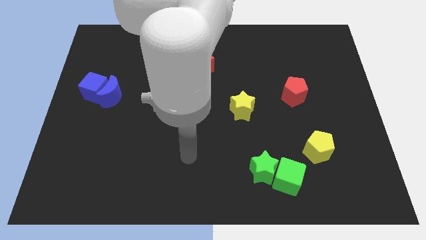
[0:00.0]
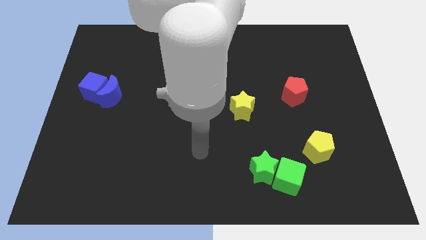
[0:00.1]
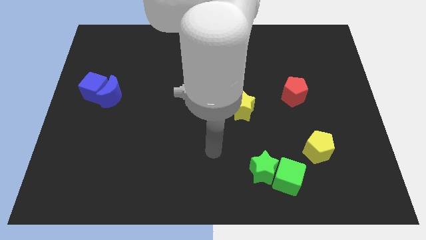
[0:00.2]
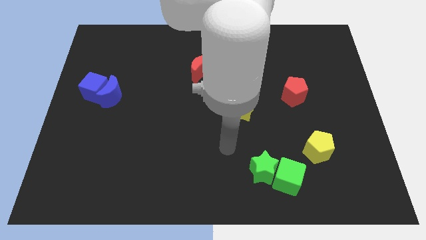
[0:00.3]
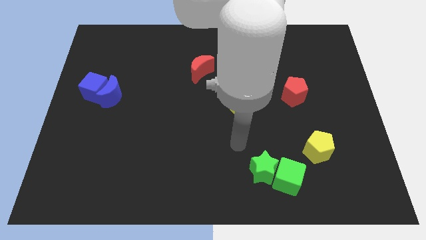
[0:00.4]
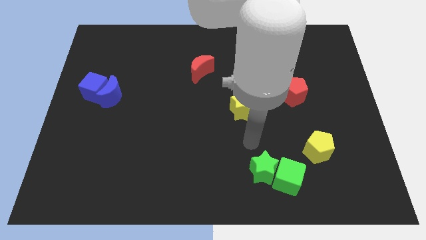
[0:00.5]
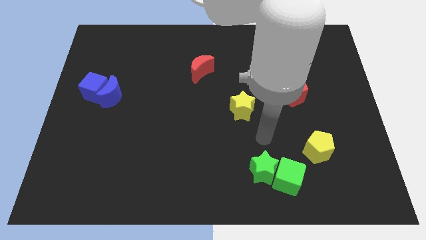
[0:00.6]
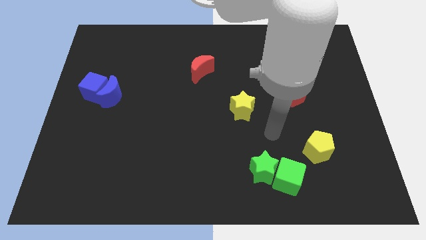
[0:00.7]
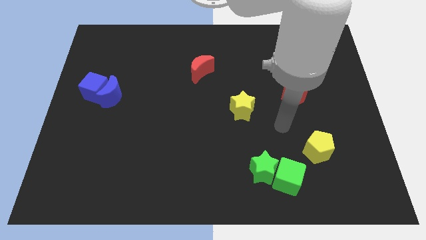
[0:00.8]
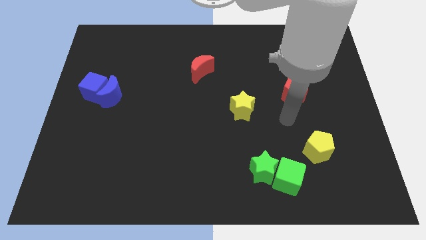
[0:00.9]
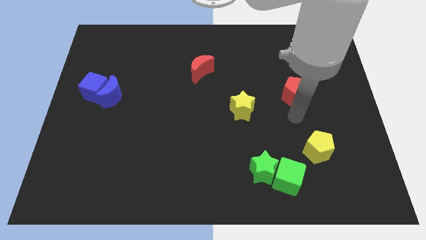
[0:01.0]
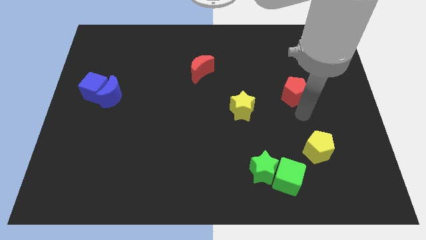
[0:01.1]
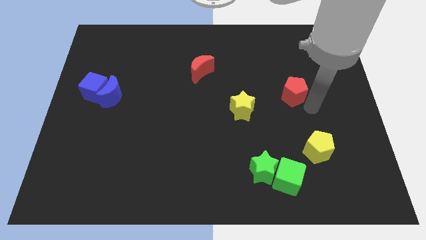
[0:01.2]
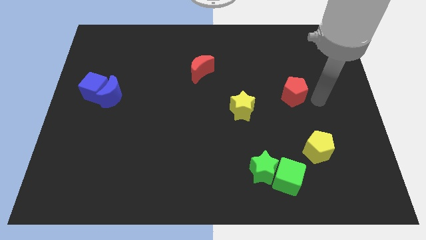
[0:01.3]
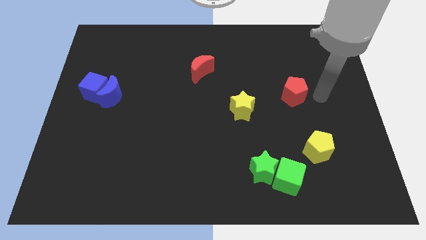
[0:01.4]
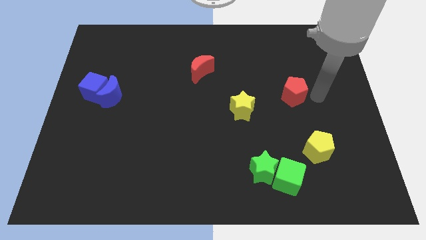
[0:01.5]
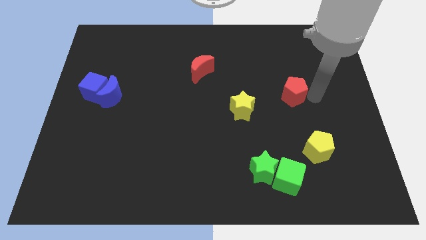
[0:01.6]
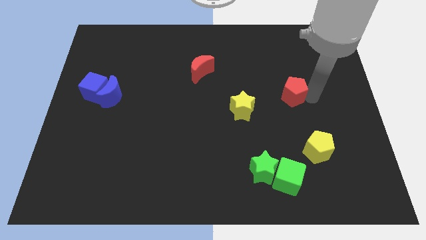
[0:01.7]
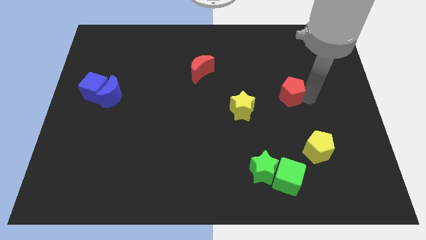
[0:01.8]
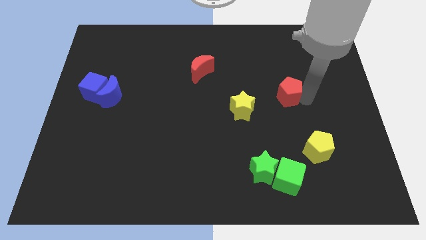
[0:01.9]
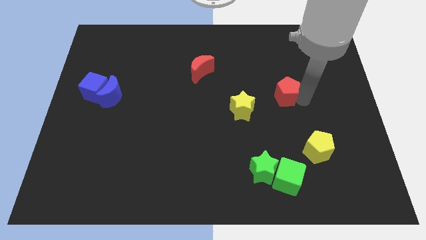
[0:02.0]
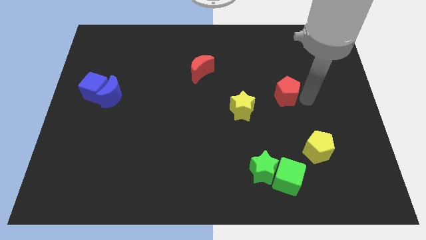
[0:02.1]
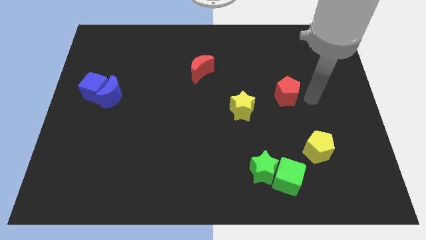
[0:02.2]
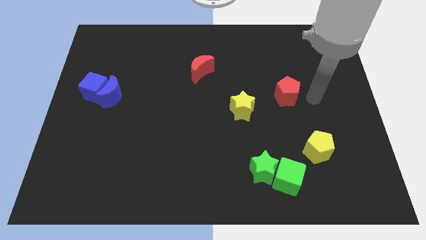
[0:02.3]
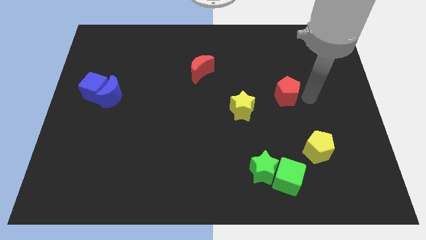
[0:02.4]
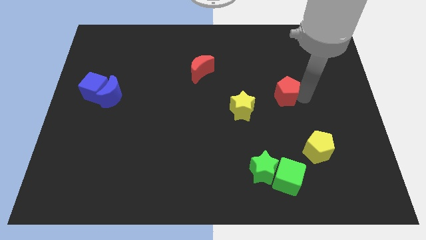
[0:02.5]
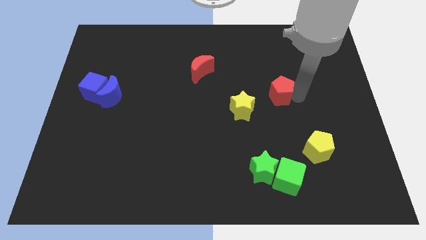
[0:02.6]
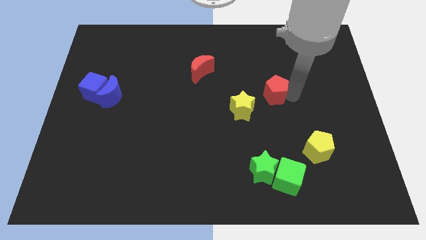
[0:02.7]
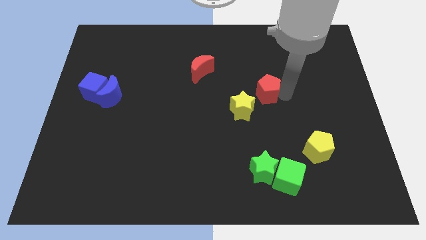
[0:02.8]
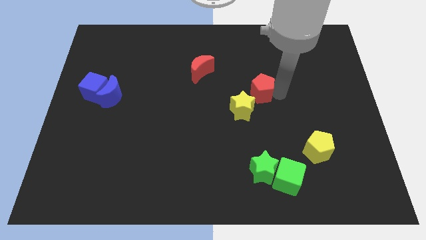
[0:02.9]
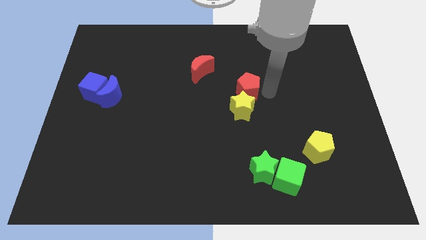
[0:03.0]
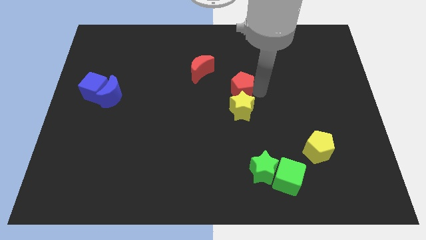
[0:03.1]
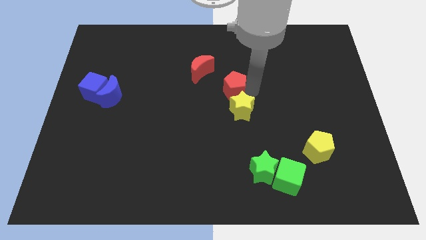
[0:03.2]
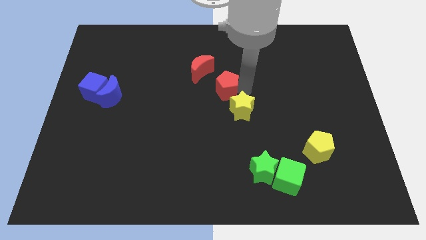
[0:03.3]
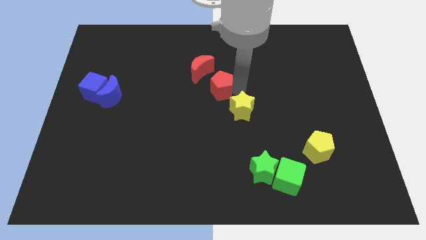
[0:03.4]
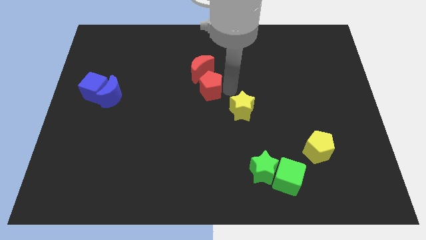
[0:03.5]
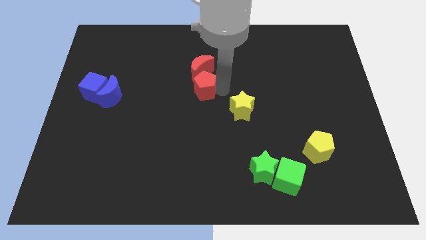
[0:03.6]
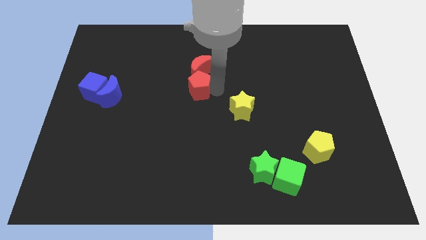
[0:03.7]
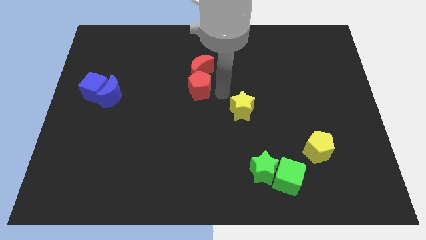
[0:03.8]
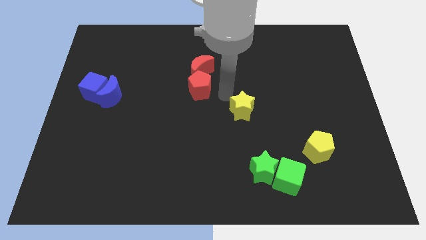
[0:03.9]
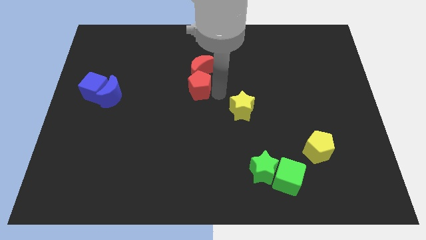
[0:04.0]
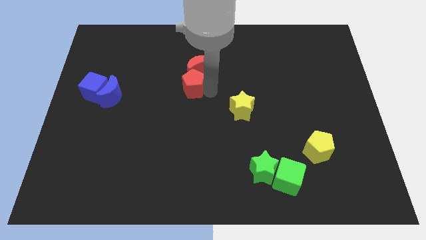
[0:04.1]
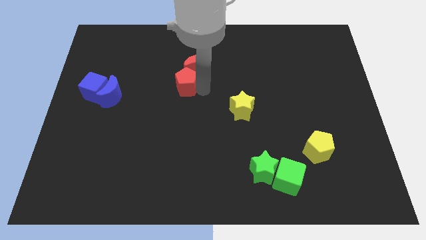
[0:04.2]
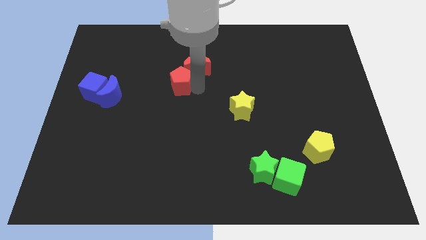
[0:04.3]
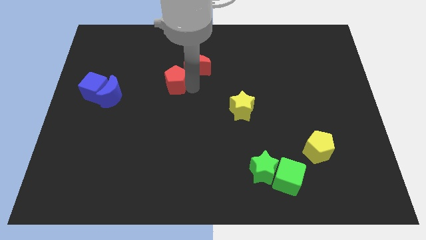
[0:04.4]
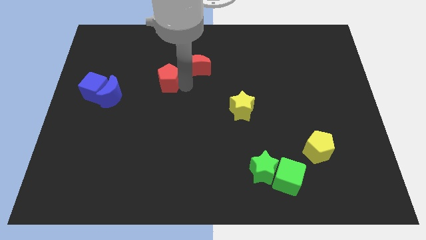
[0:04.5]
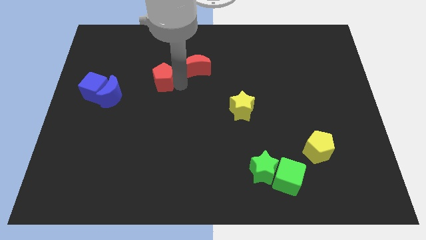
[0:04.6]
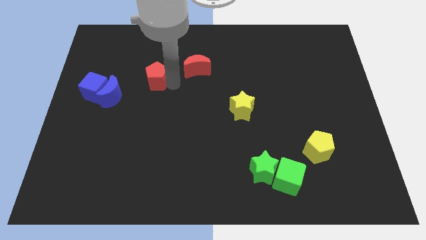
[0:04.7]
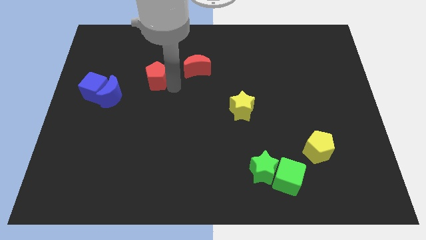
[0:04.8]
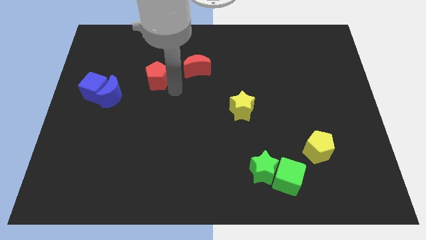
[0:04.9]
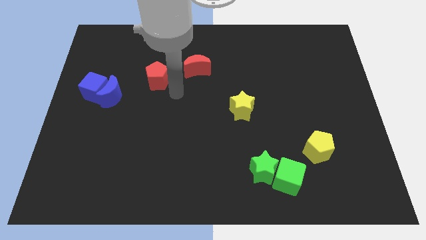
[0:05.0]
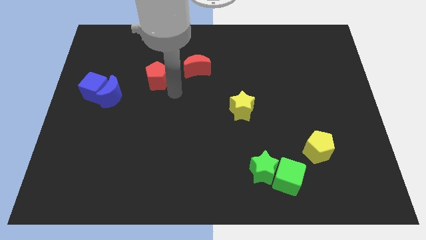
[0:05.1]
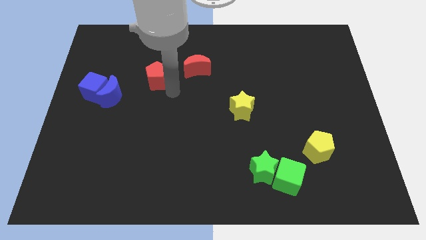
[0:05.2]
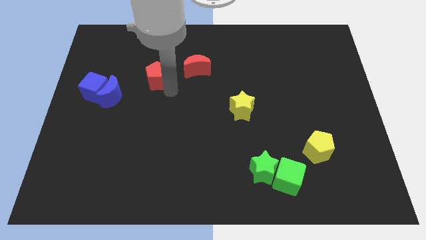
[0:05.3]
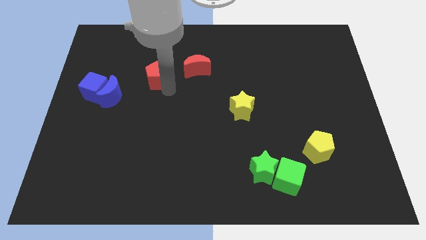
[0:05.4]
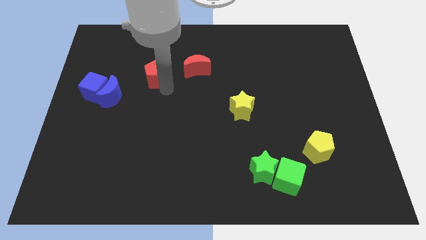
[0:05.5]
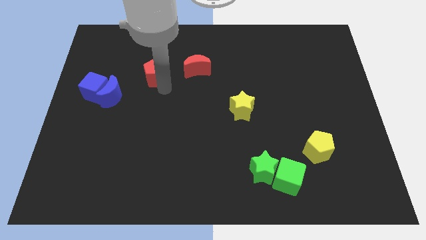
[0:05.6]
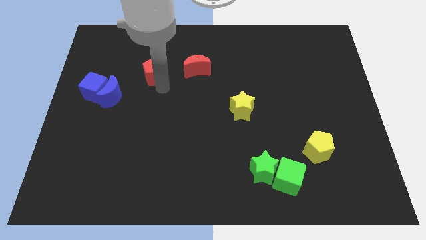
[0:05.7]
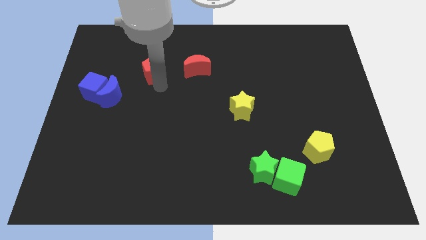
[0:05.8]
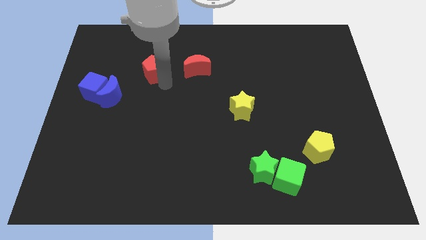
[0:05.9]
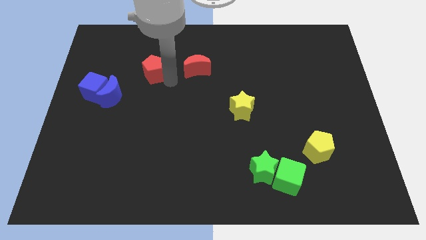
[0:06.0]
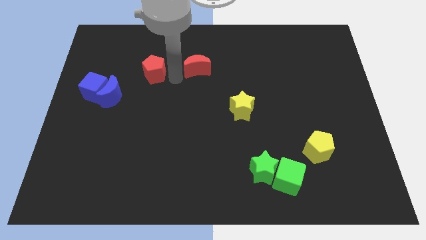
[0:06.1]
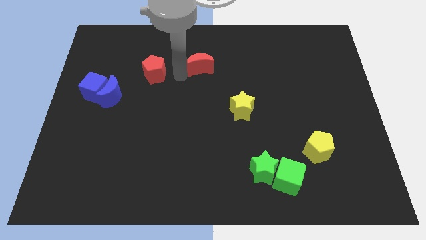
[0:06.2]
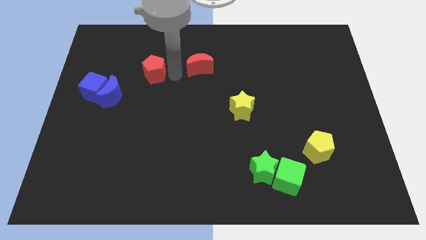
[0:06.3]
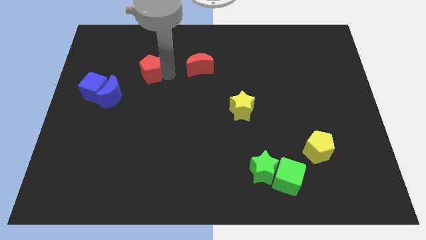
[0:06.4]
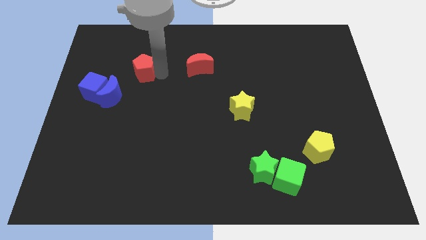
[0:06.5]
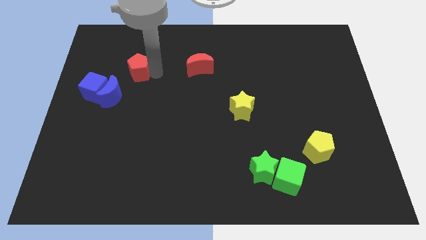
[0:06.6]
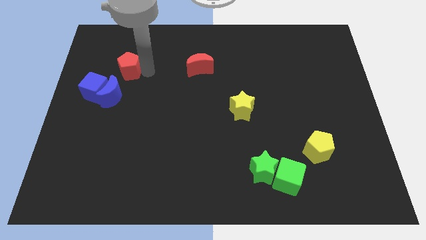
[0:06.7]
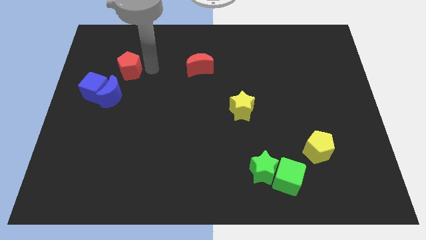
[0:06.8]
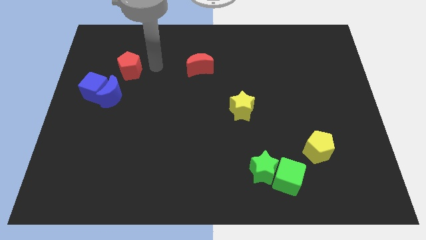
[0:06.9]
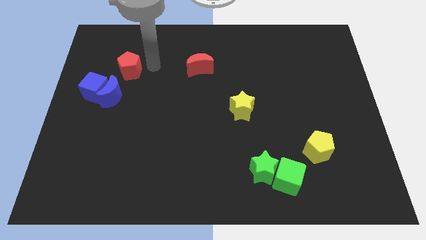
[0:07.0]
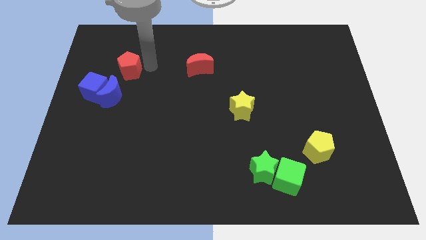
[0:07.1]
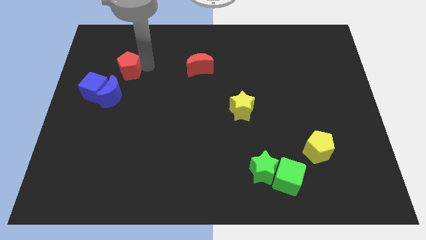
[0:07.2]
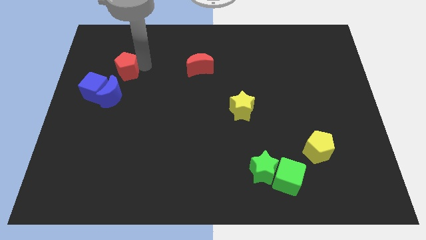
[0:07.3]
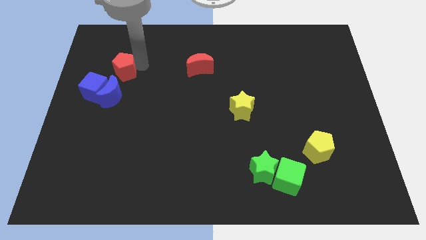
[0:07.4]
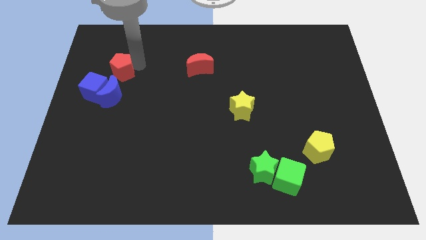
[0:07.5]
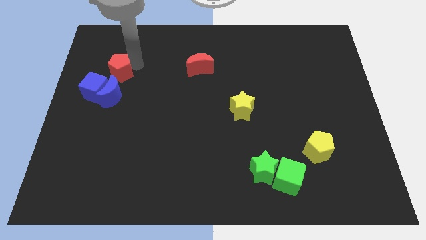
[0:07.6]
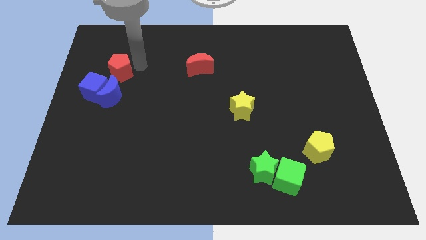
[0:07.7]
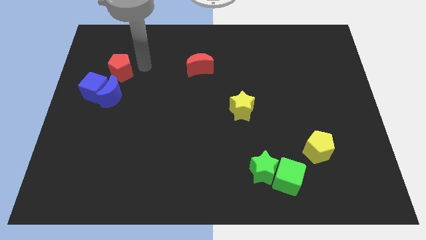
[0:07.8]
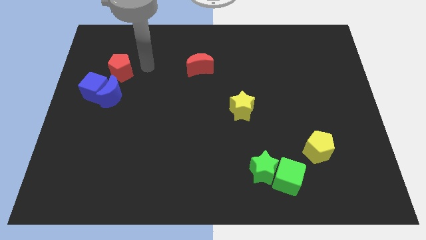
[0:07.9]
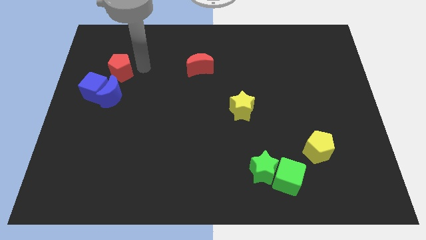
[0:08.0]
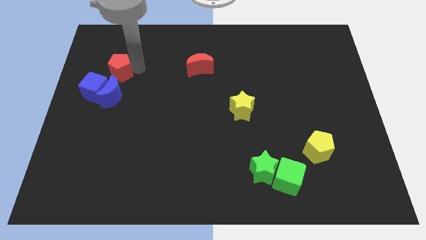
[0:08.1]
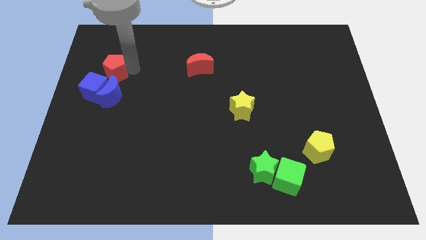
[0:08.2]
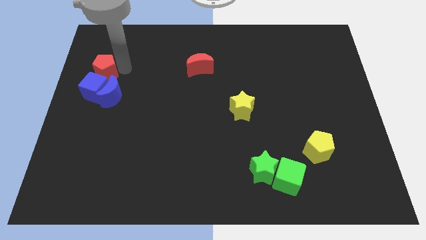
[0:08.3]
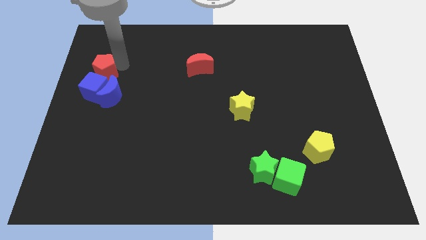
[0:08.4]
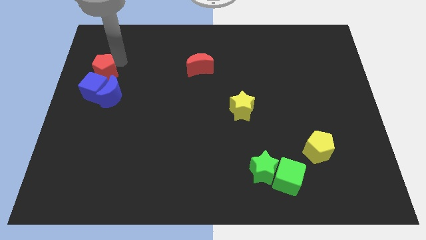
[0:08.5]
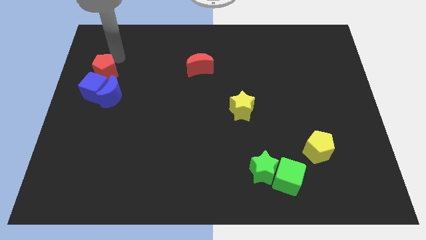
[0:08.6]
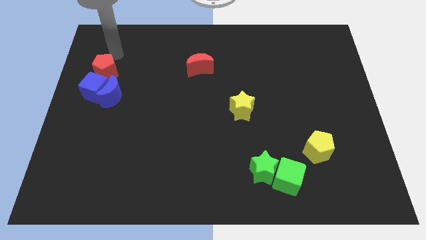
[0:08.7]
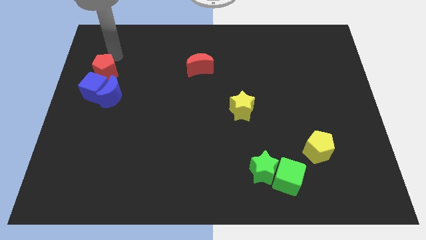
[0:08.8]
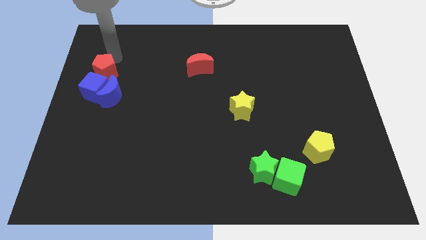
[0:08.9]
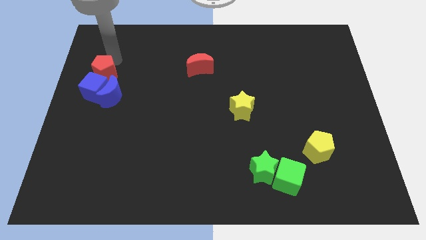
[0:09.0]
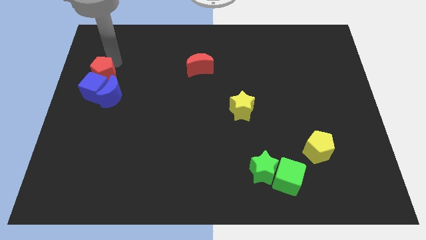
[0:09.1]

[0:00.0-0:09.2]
move the red pentagon close to the blue cube
